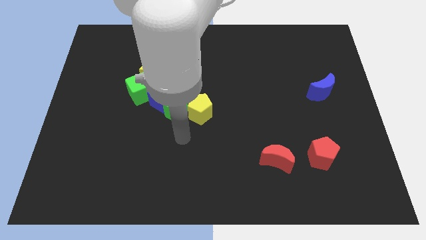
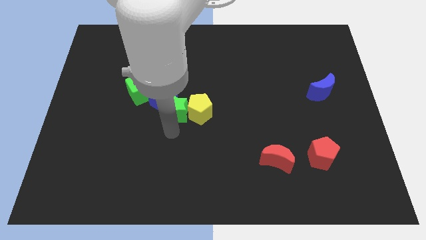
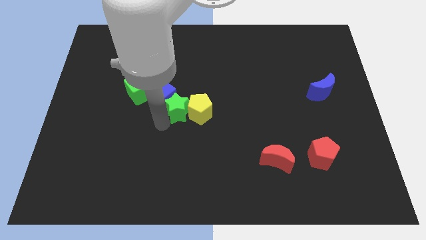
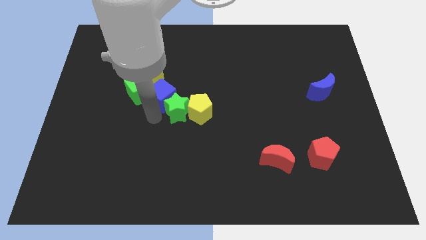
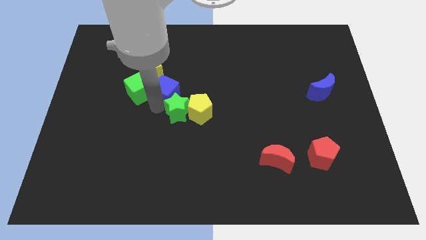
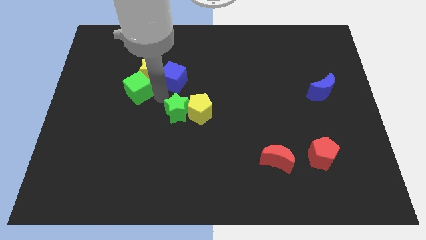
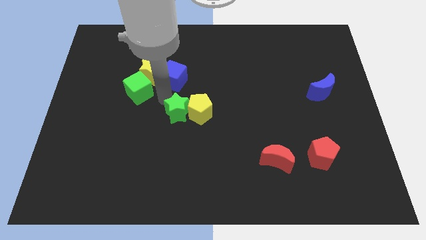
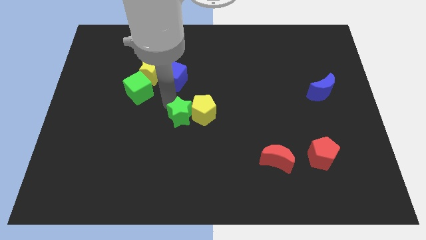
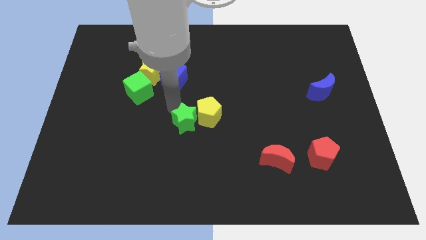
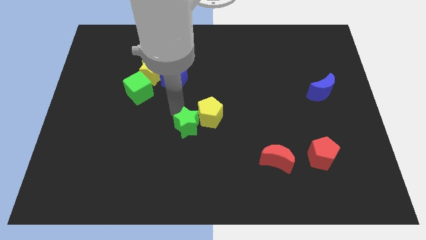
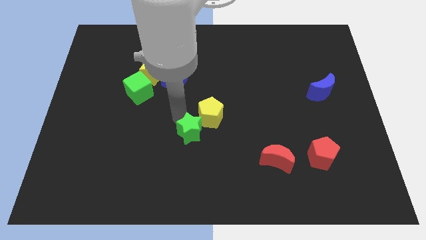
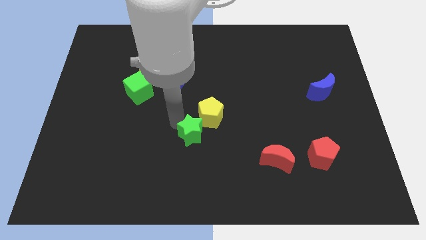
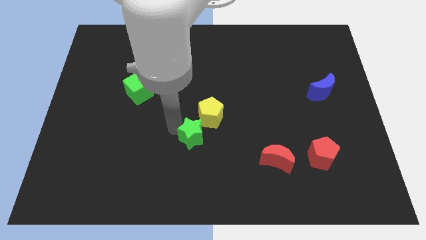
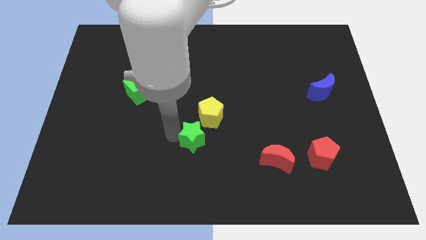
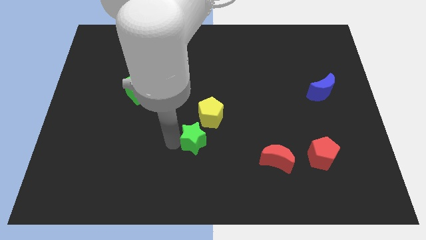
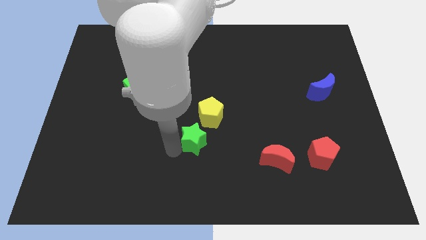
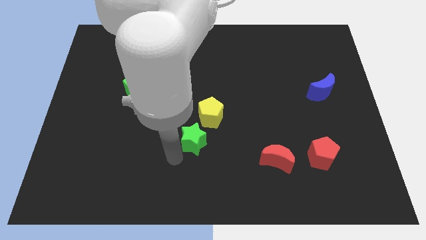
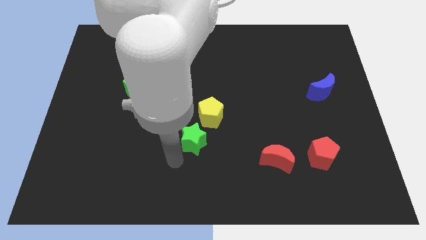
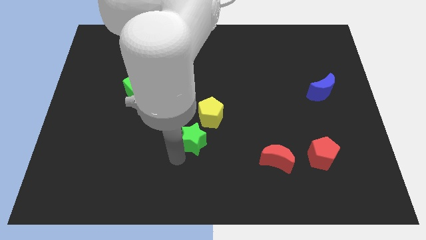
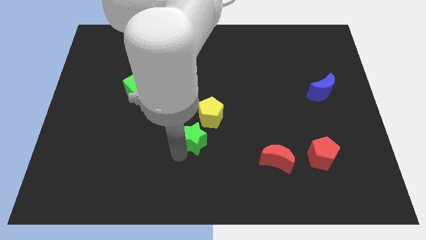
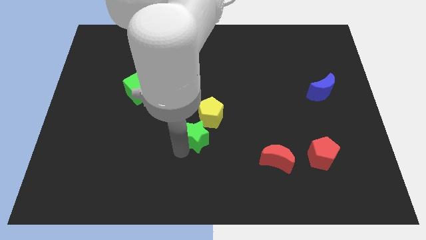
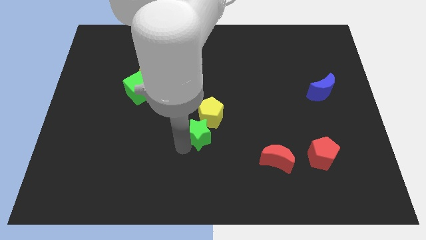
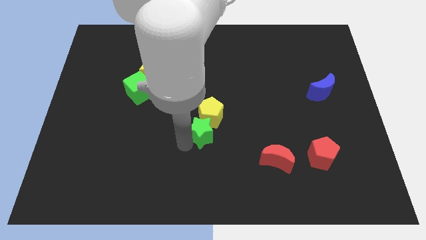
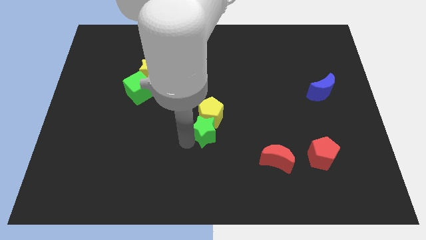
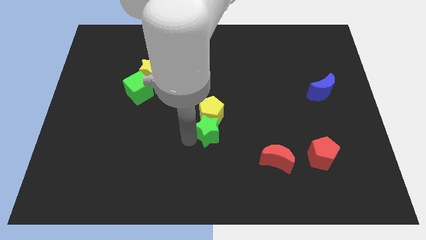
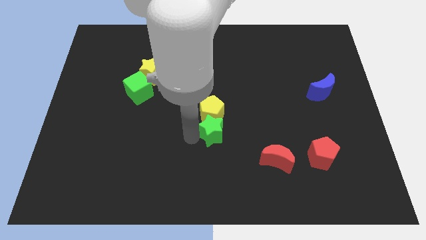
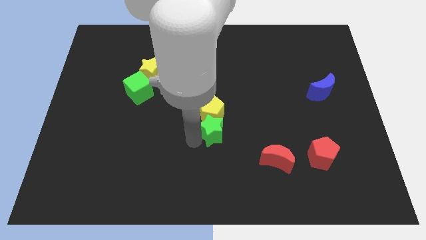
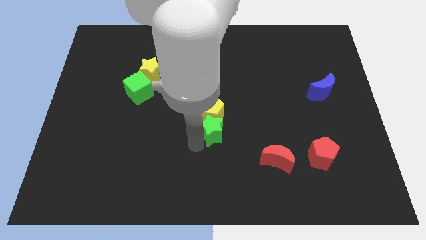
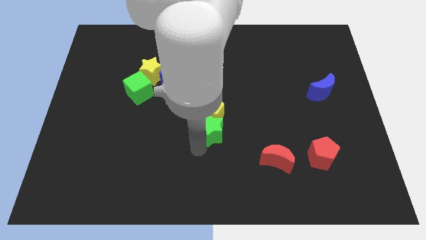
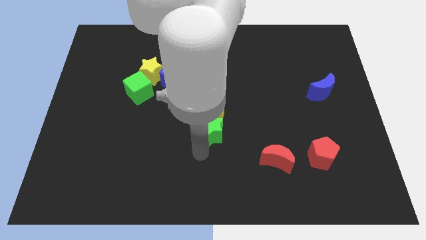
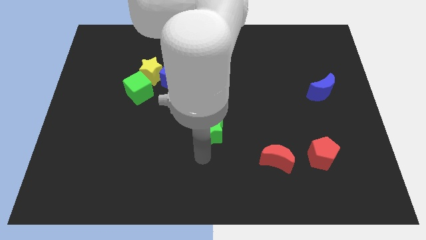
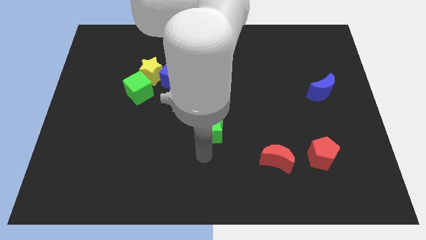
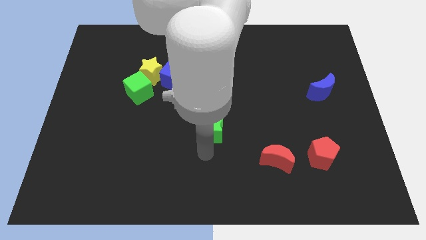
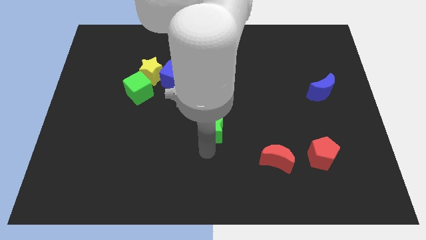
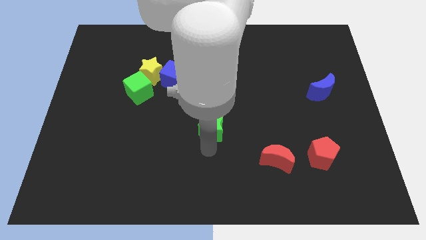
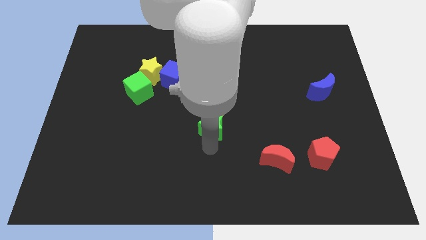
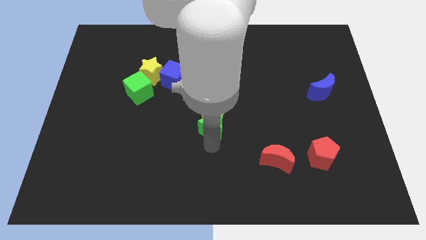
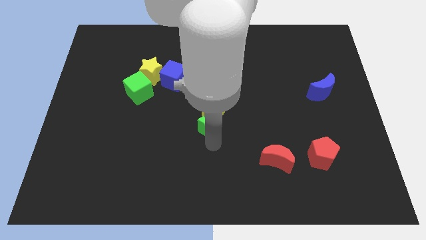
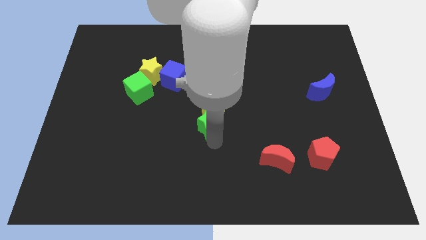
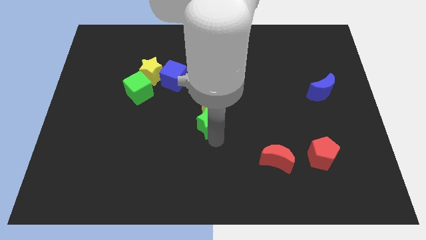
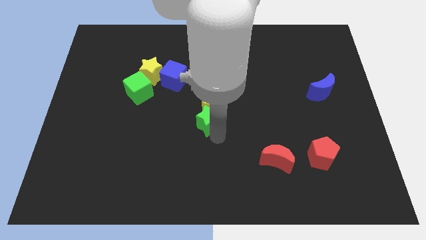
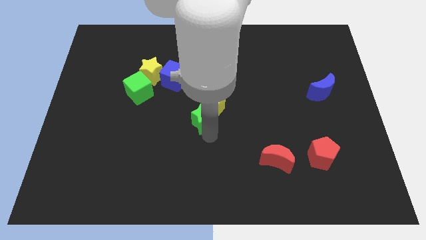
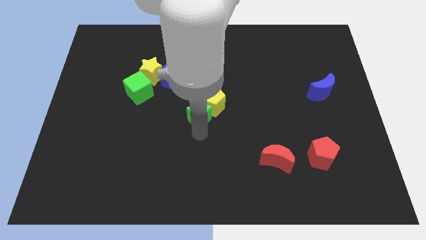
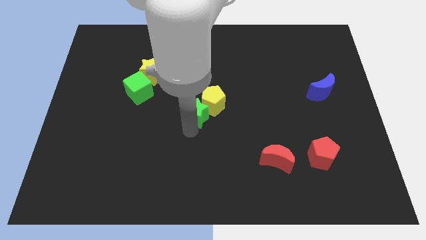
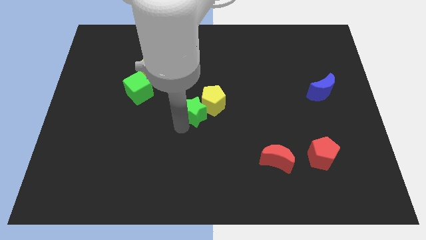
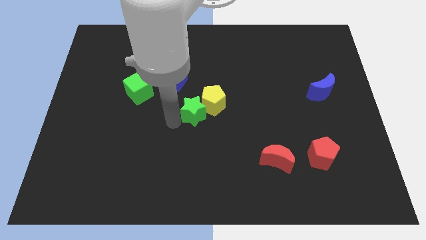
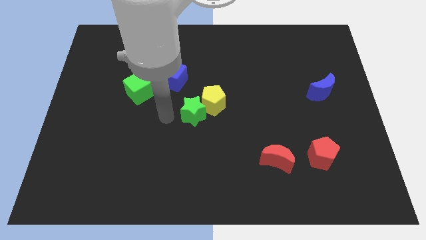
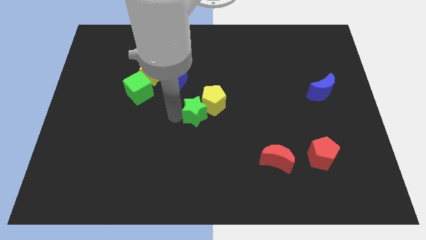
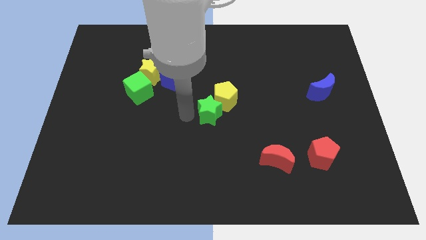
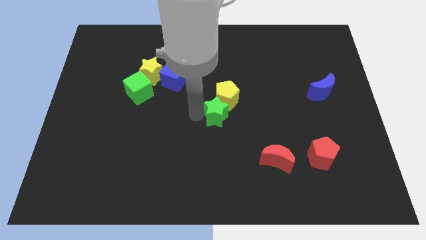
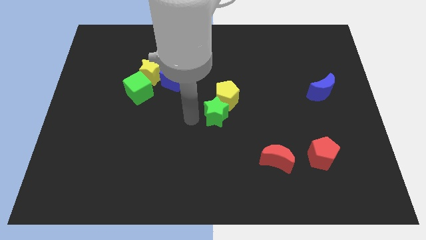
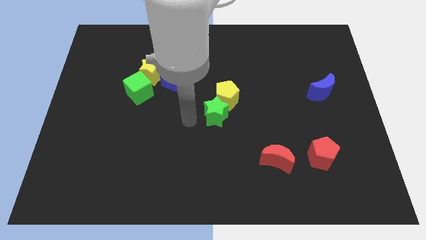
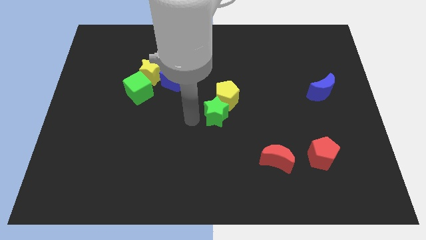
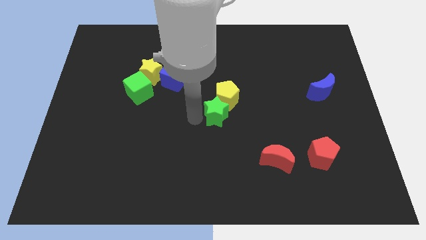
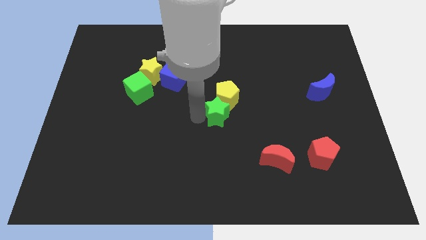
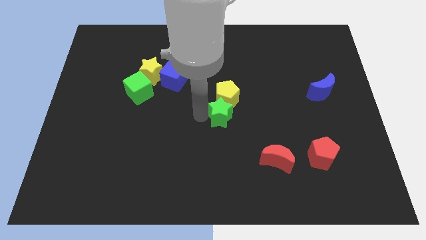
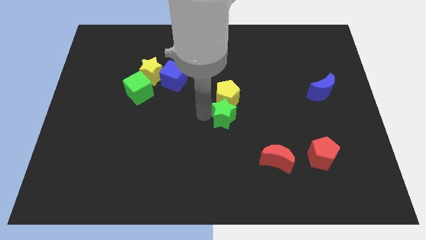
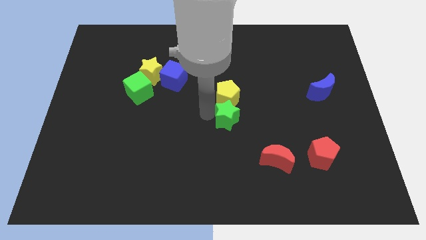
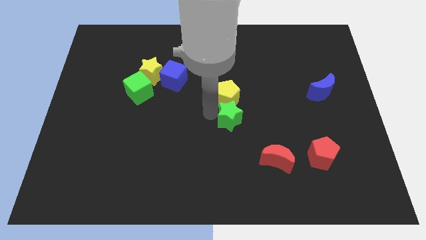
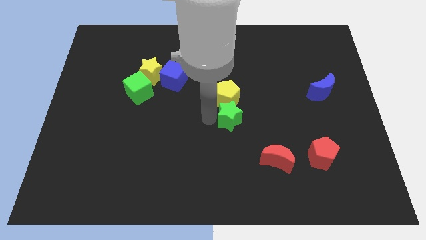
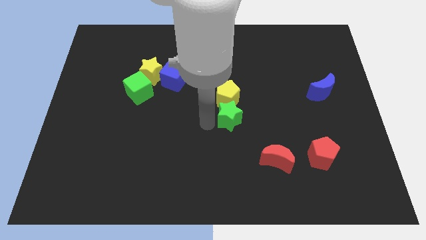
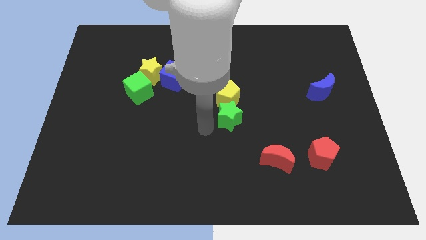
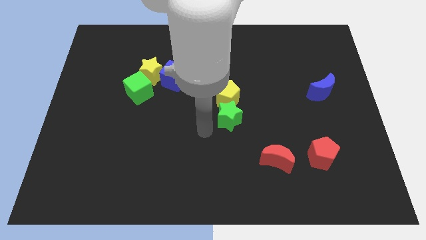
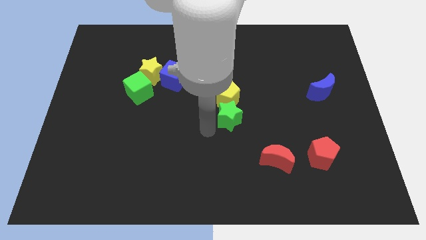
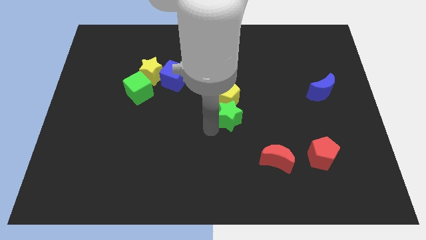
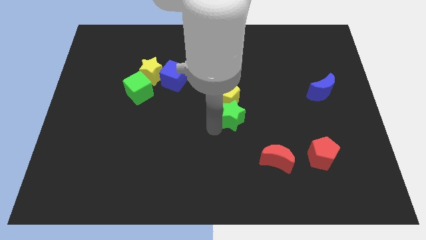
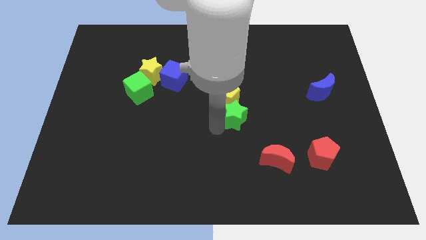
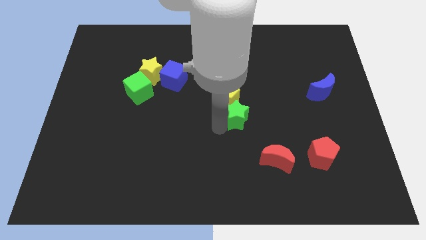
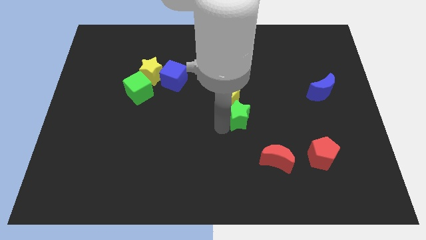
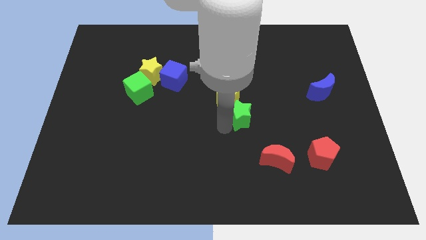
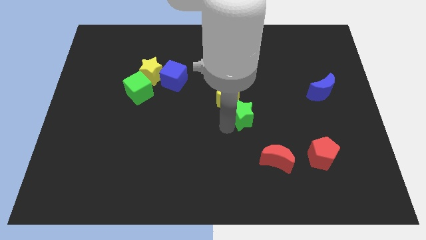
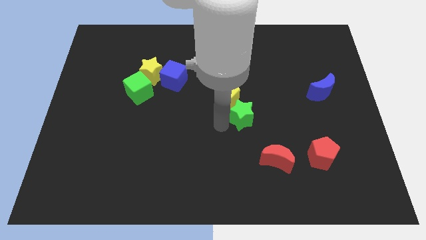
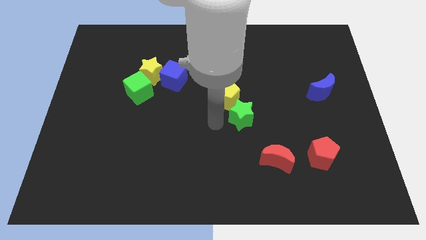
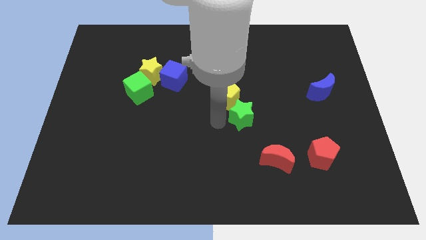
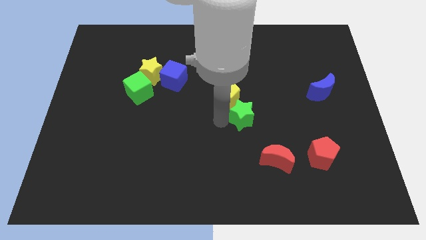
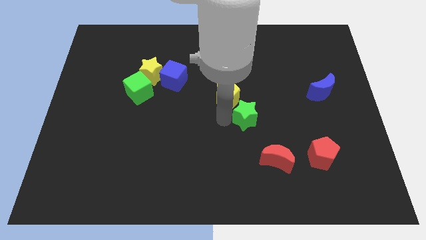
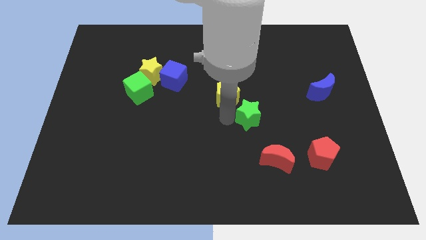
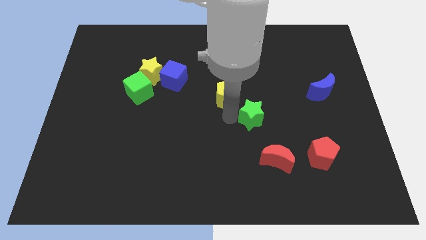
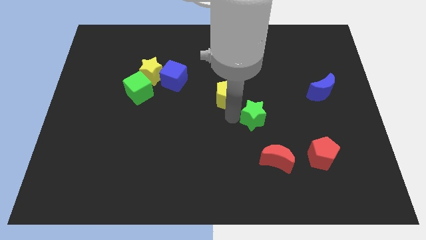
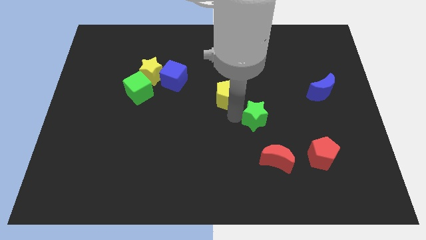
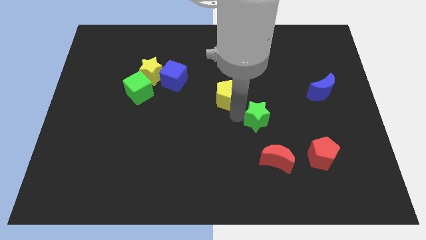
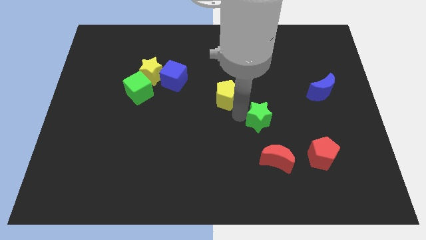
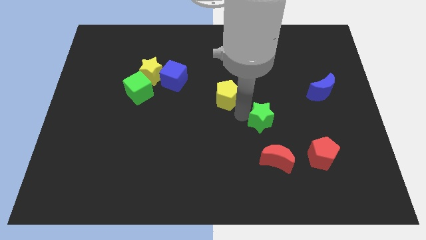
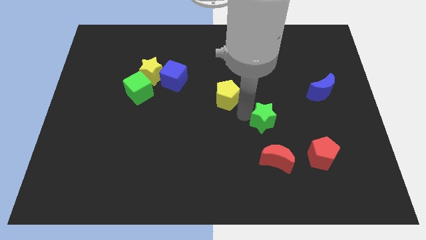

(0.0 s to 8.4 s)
move the green star to the right
